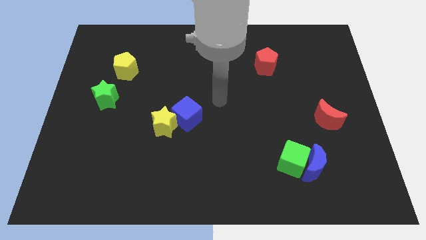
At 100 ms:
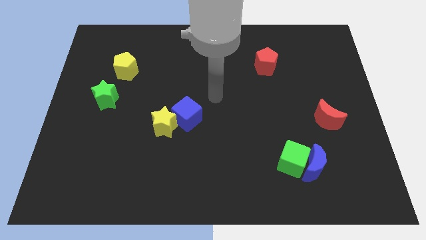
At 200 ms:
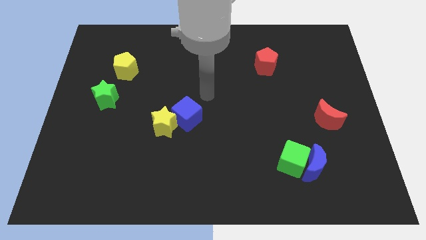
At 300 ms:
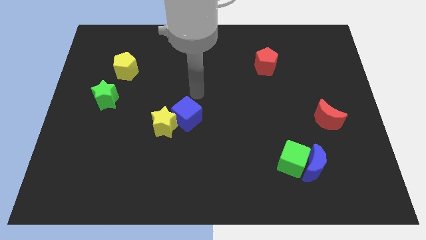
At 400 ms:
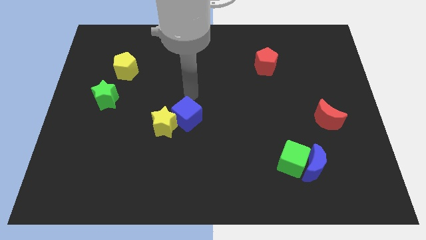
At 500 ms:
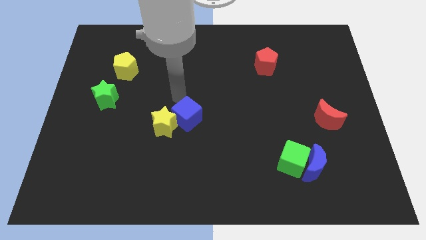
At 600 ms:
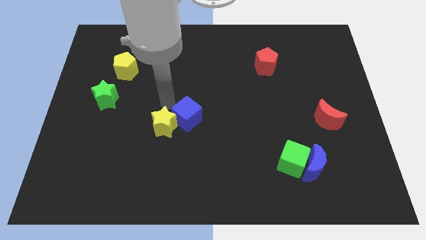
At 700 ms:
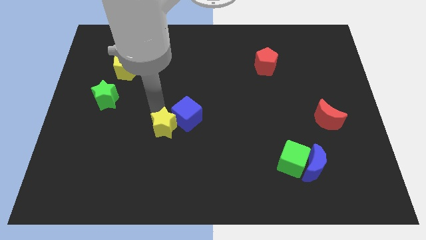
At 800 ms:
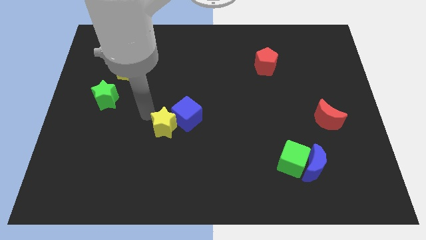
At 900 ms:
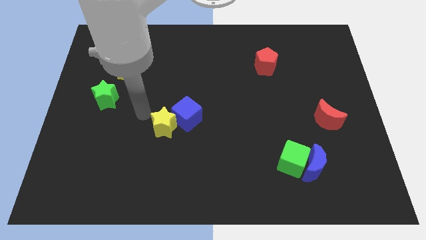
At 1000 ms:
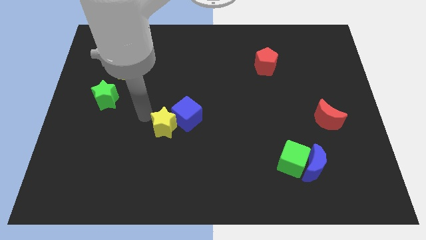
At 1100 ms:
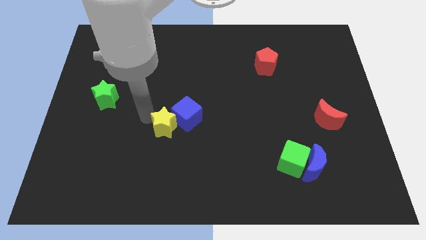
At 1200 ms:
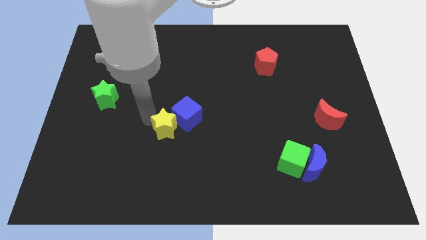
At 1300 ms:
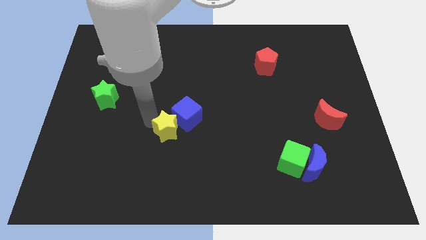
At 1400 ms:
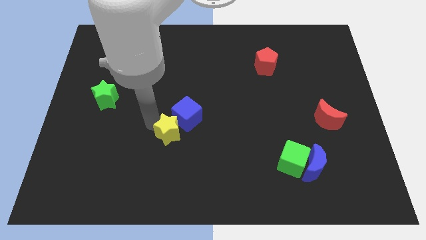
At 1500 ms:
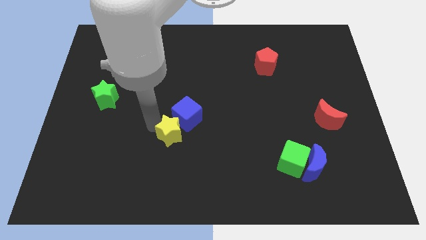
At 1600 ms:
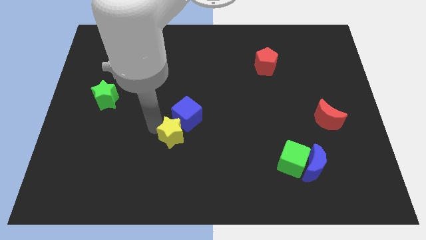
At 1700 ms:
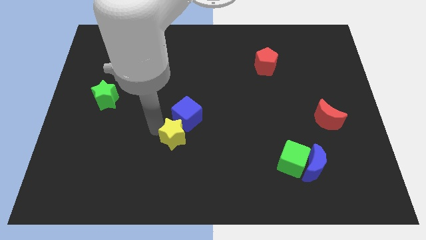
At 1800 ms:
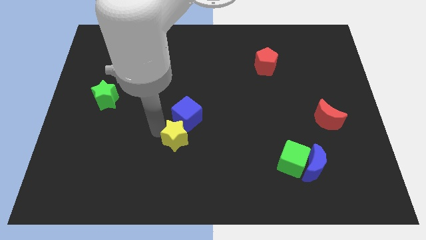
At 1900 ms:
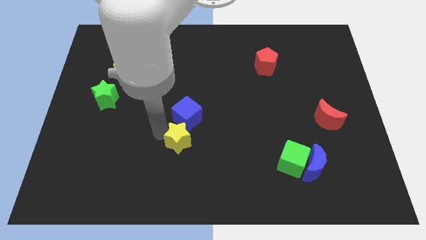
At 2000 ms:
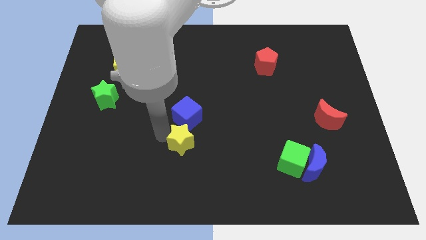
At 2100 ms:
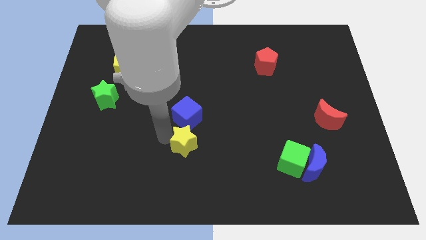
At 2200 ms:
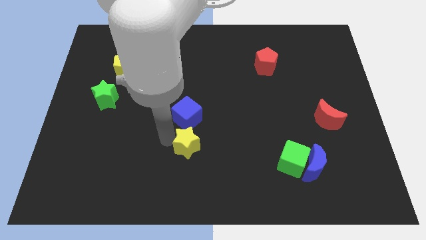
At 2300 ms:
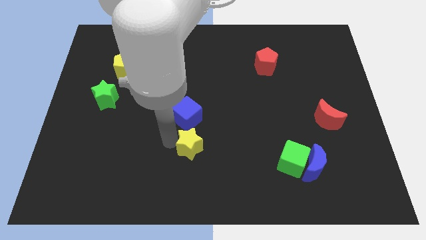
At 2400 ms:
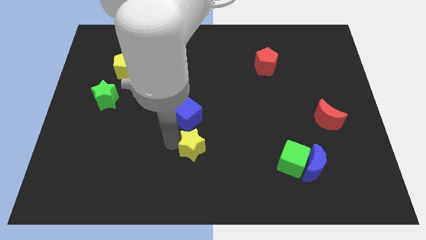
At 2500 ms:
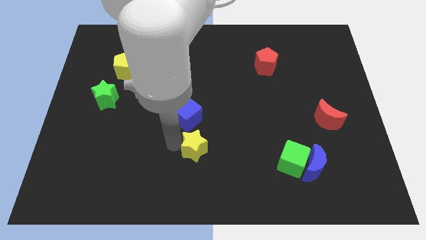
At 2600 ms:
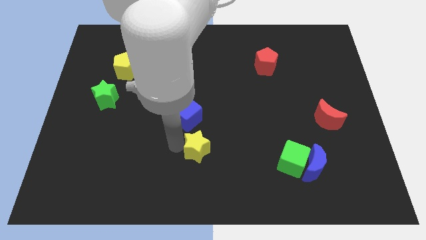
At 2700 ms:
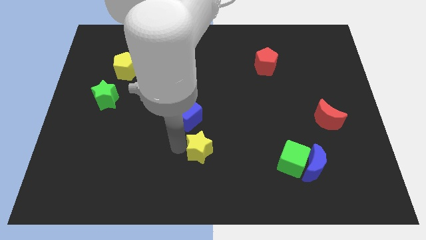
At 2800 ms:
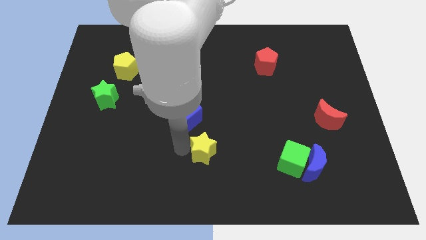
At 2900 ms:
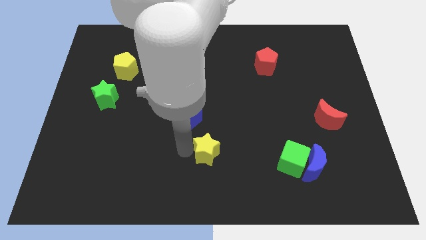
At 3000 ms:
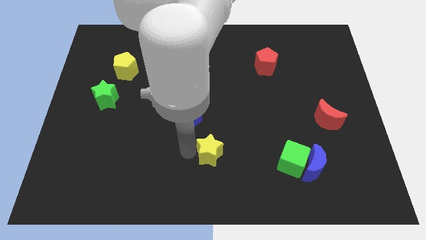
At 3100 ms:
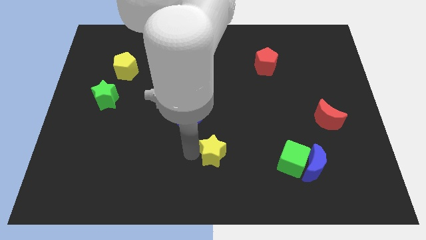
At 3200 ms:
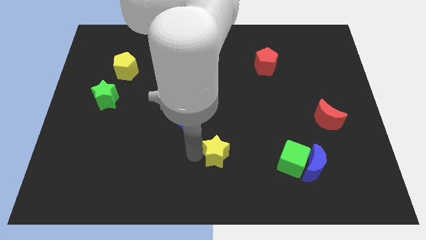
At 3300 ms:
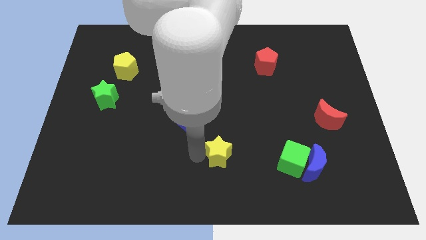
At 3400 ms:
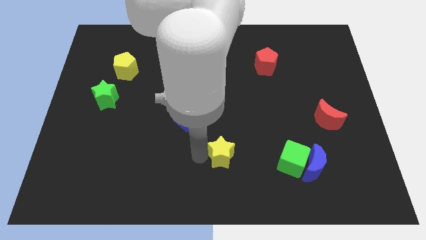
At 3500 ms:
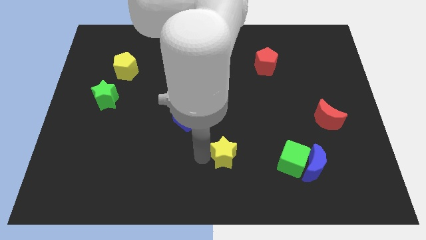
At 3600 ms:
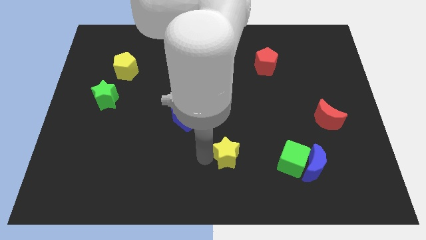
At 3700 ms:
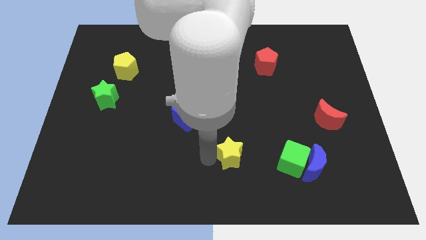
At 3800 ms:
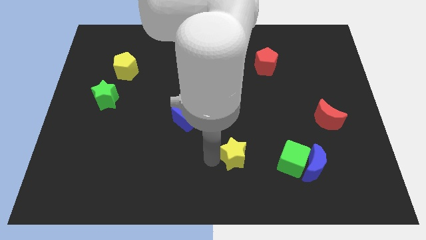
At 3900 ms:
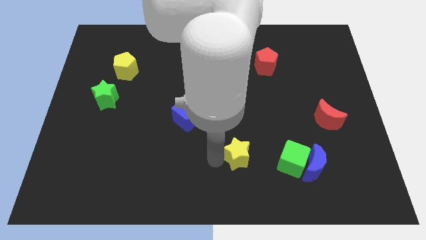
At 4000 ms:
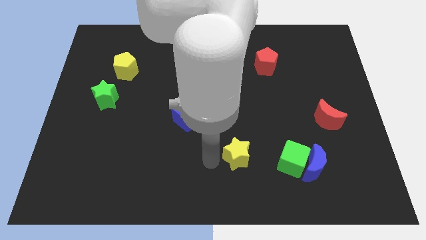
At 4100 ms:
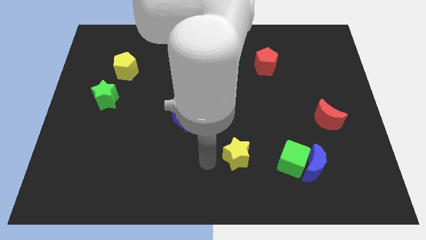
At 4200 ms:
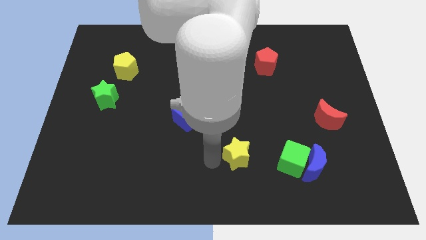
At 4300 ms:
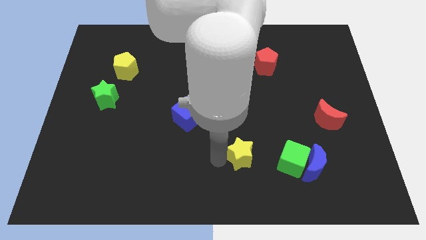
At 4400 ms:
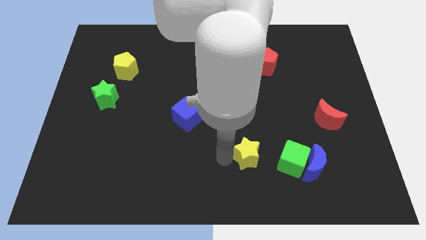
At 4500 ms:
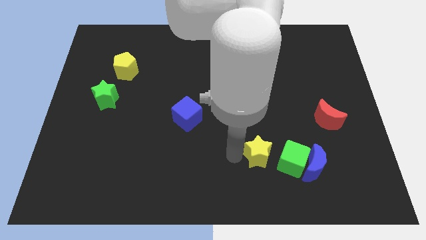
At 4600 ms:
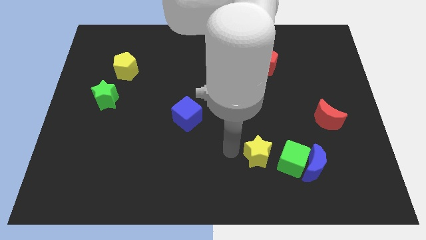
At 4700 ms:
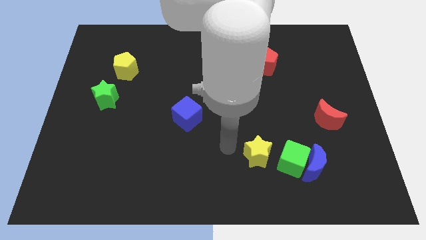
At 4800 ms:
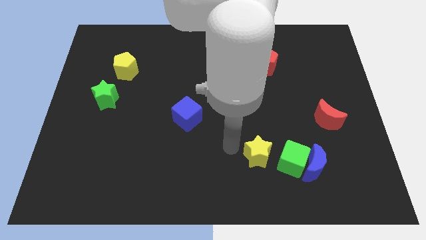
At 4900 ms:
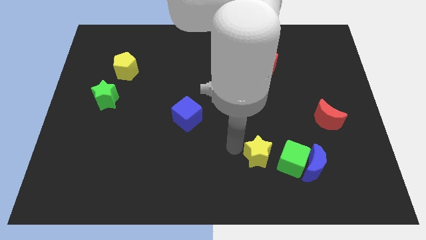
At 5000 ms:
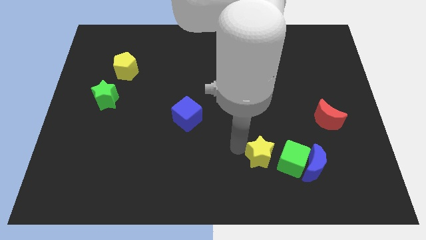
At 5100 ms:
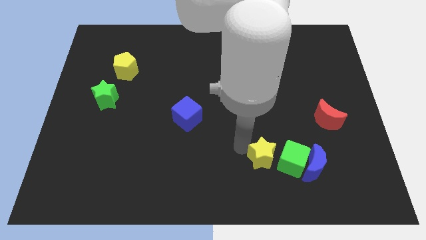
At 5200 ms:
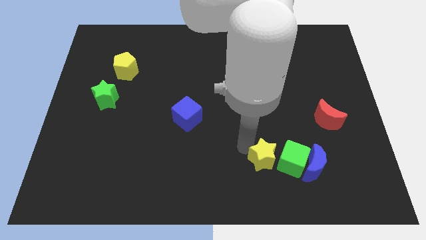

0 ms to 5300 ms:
slide the yellow star towards the green cube

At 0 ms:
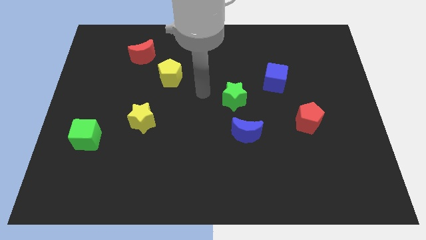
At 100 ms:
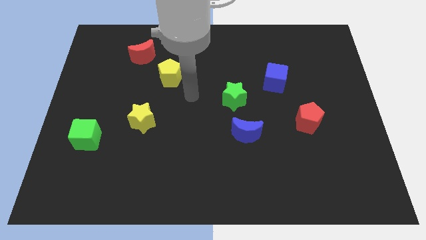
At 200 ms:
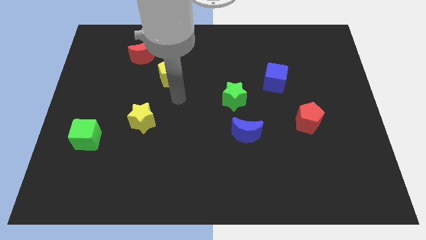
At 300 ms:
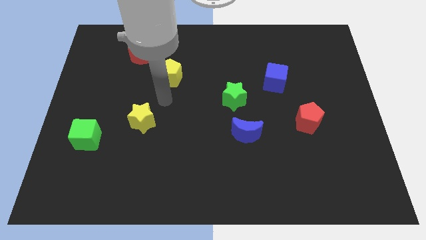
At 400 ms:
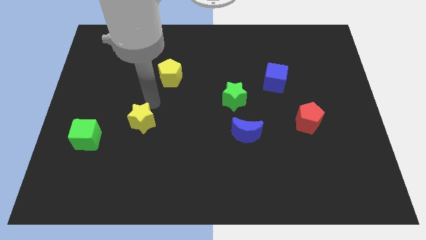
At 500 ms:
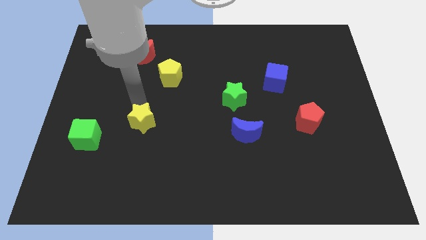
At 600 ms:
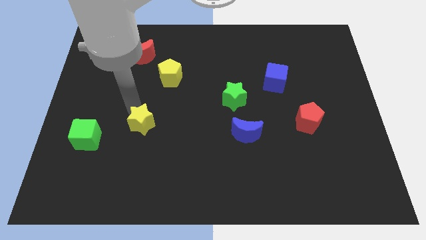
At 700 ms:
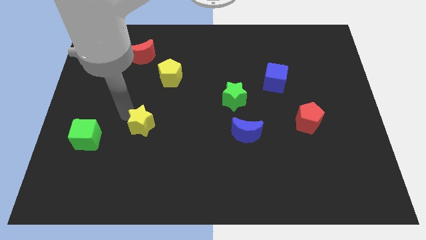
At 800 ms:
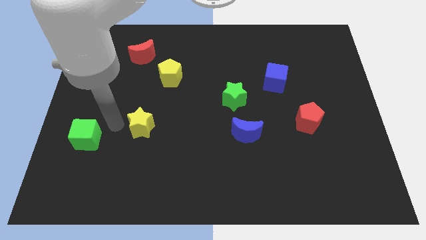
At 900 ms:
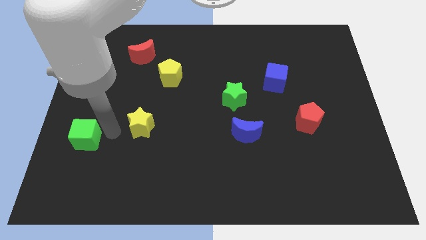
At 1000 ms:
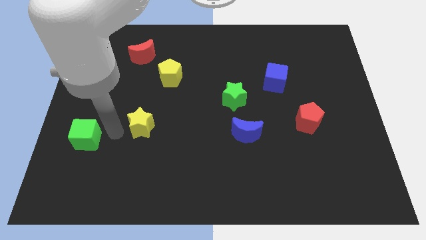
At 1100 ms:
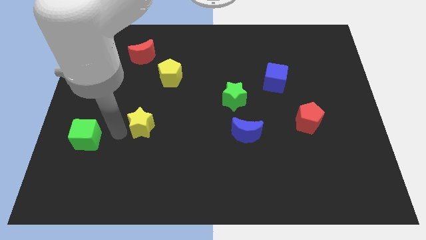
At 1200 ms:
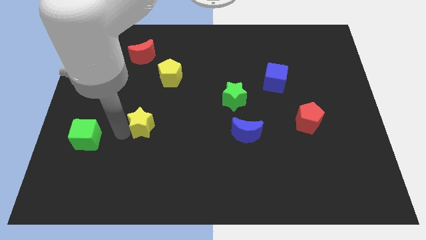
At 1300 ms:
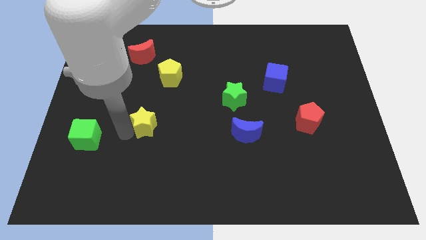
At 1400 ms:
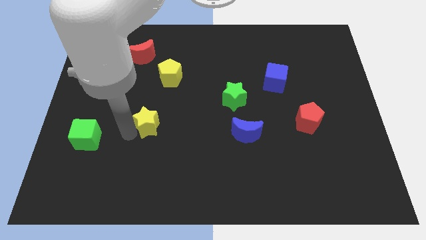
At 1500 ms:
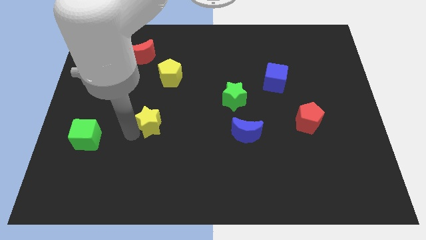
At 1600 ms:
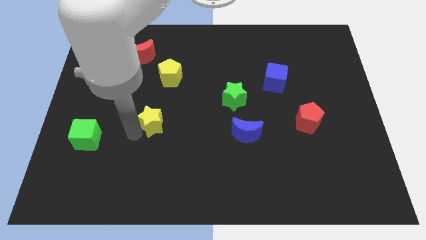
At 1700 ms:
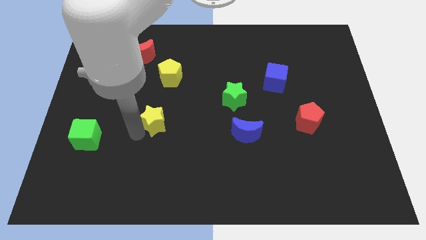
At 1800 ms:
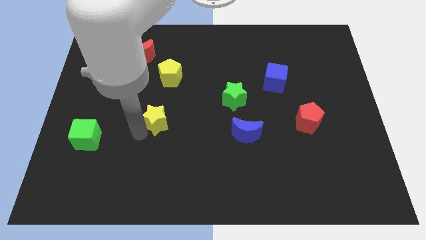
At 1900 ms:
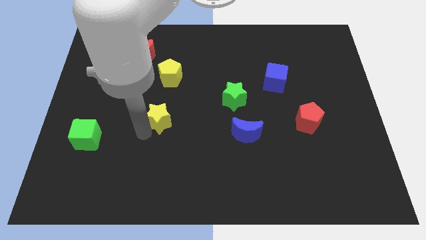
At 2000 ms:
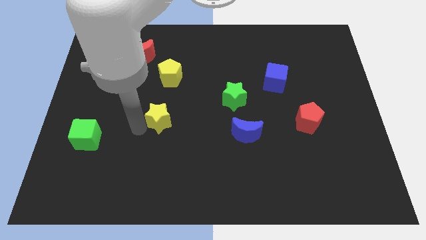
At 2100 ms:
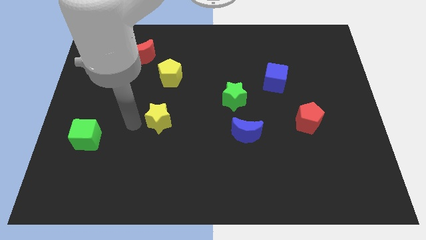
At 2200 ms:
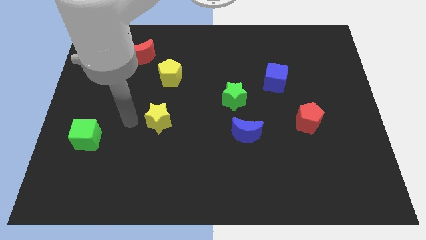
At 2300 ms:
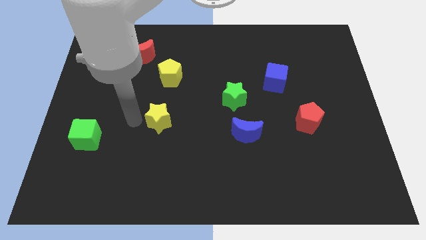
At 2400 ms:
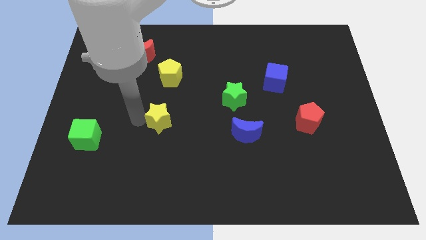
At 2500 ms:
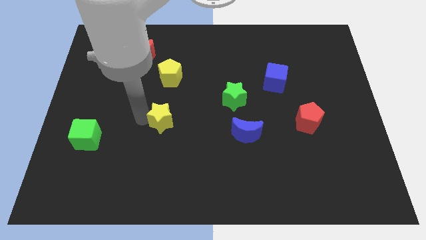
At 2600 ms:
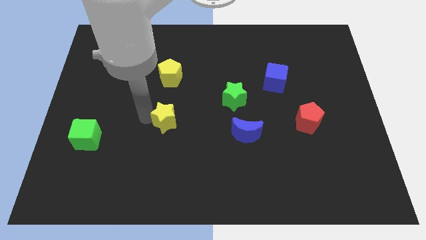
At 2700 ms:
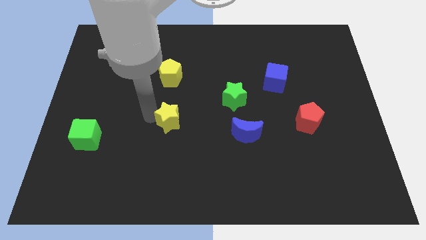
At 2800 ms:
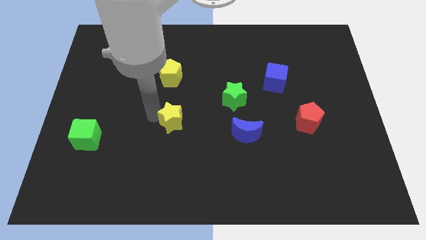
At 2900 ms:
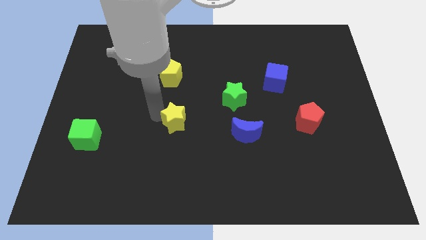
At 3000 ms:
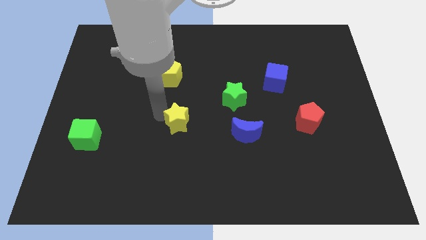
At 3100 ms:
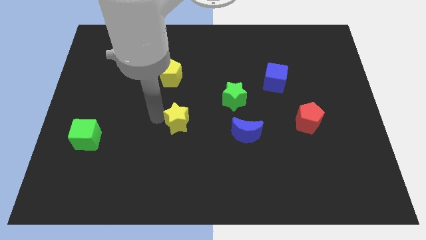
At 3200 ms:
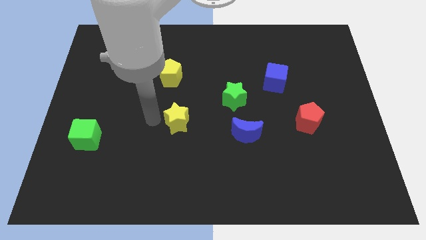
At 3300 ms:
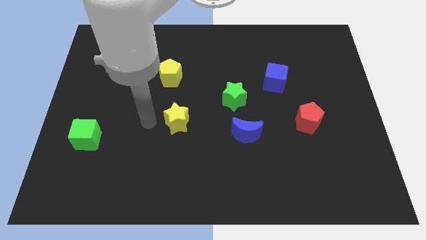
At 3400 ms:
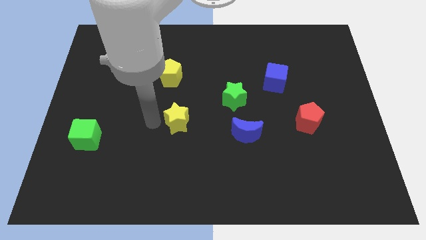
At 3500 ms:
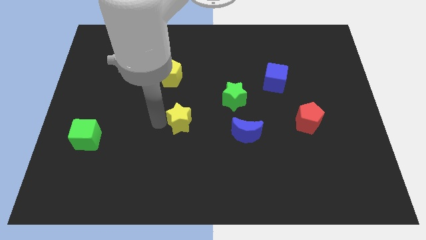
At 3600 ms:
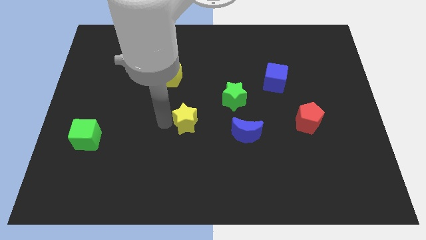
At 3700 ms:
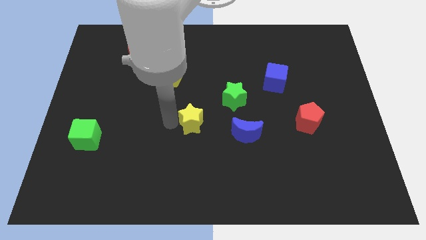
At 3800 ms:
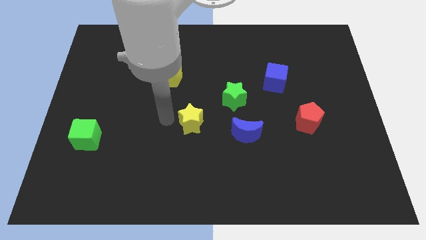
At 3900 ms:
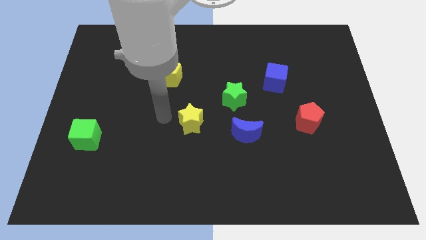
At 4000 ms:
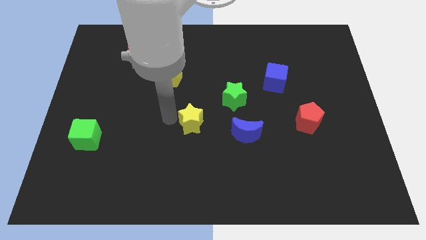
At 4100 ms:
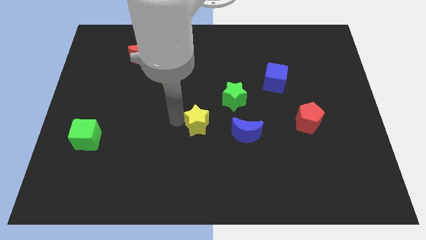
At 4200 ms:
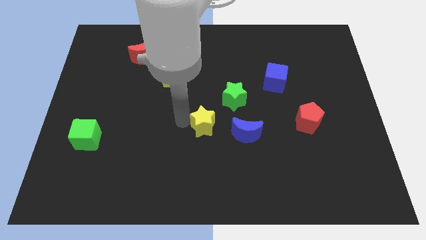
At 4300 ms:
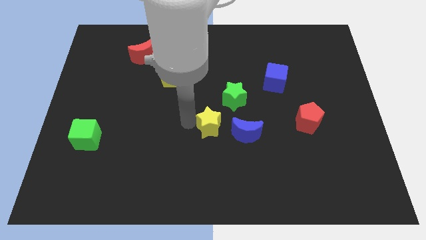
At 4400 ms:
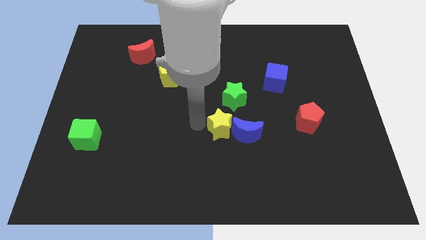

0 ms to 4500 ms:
slide the yellow star next to the blue moon
